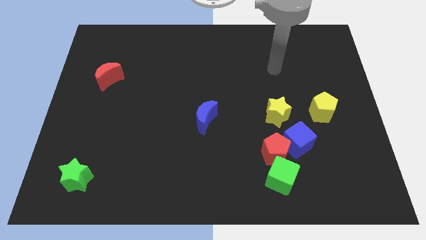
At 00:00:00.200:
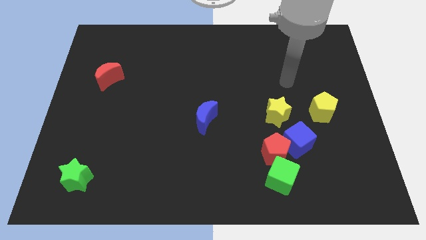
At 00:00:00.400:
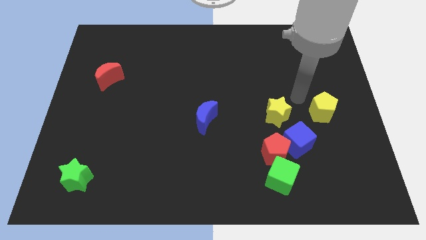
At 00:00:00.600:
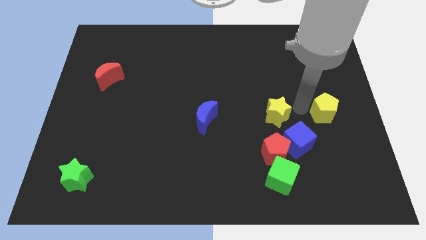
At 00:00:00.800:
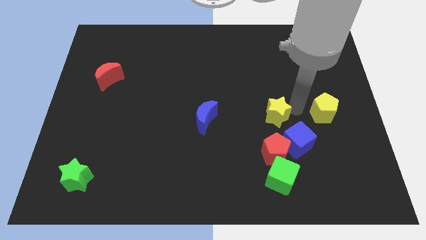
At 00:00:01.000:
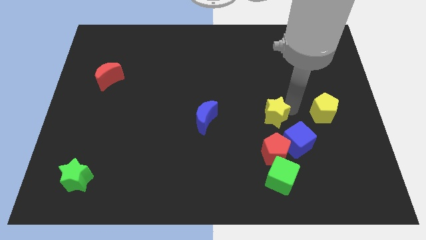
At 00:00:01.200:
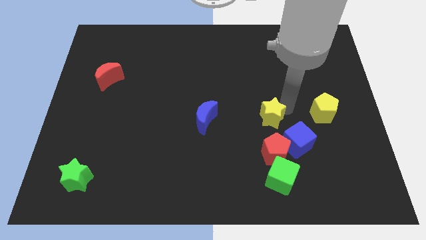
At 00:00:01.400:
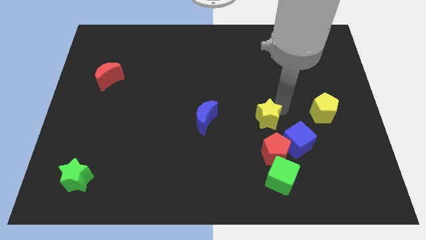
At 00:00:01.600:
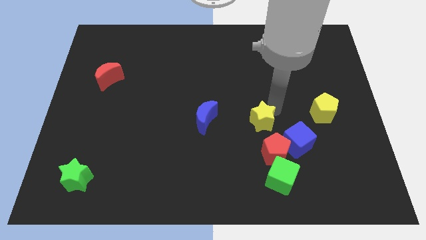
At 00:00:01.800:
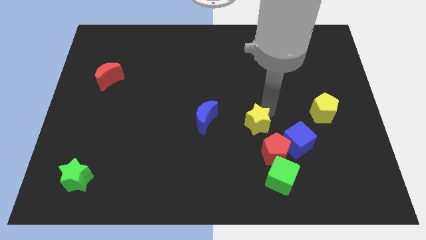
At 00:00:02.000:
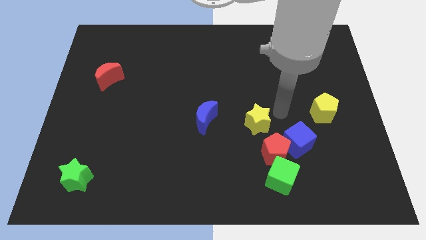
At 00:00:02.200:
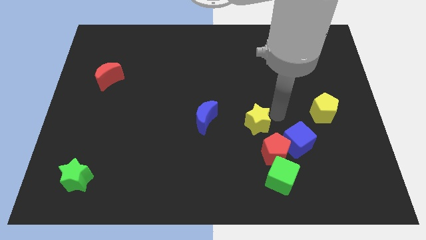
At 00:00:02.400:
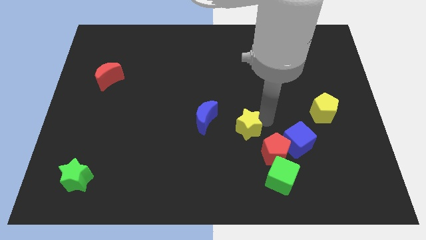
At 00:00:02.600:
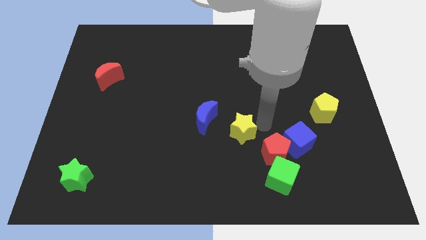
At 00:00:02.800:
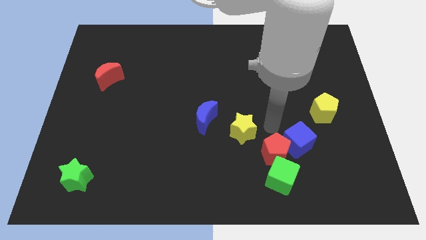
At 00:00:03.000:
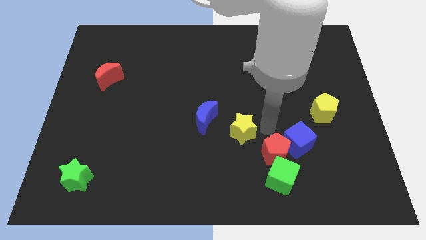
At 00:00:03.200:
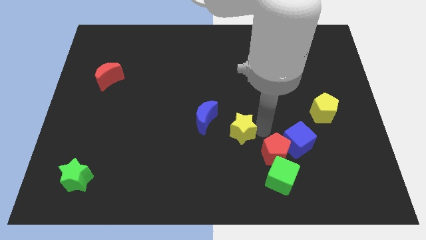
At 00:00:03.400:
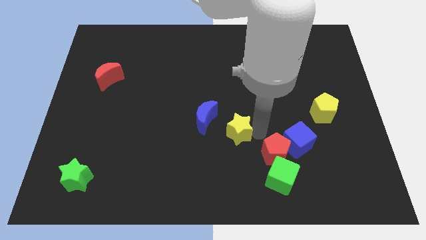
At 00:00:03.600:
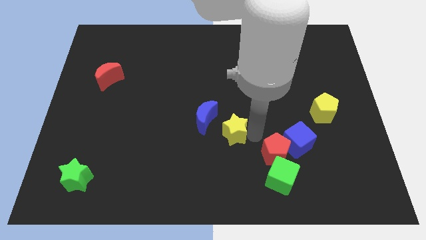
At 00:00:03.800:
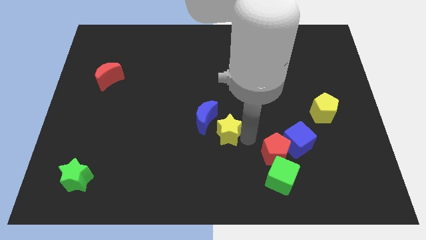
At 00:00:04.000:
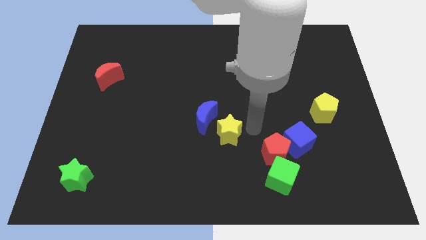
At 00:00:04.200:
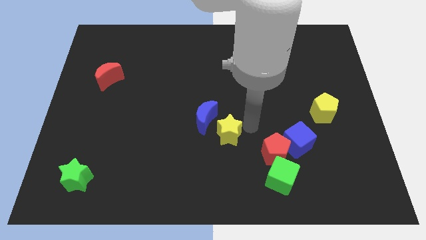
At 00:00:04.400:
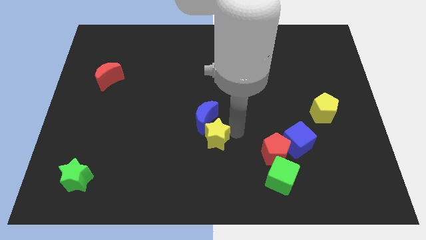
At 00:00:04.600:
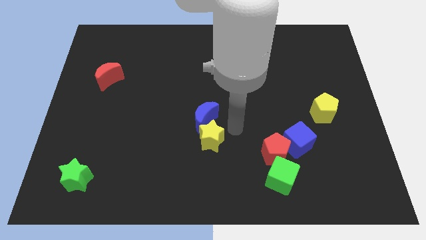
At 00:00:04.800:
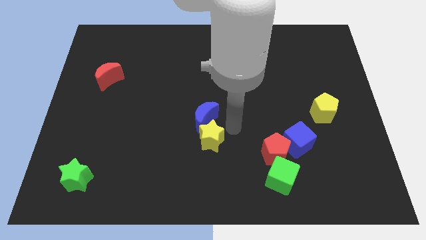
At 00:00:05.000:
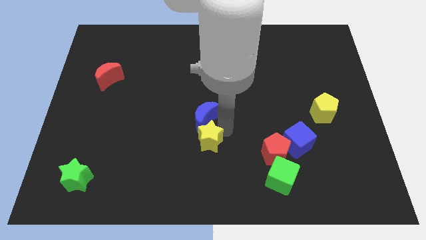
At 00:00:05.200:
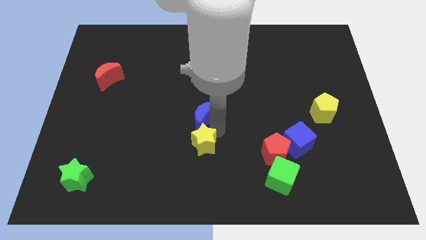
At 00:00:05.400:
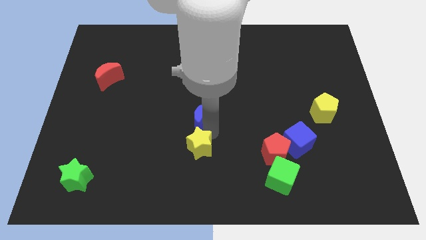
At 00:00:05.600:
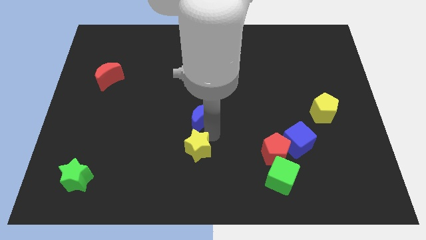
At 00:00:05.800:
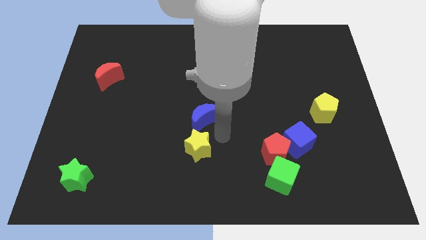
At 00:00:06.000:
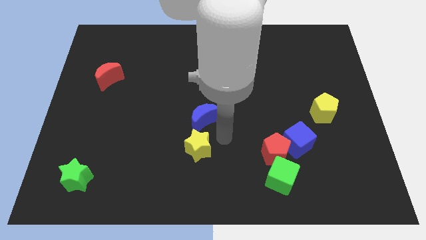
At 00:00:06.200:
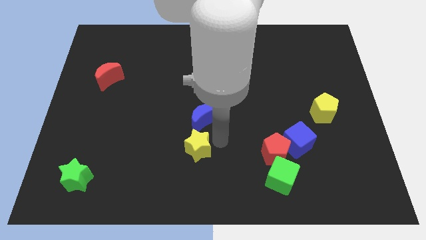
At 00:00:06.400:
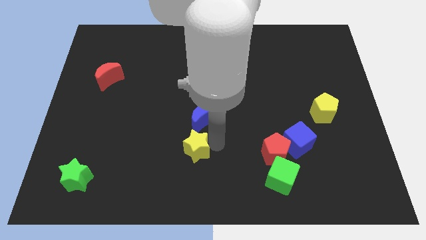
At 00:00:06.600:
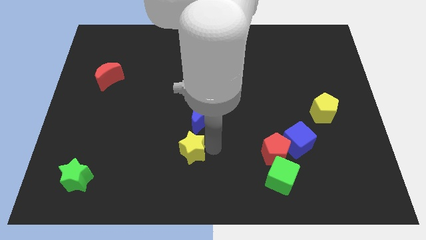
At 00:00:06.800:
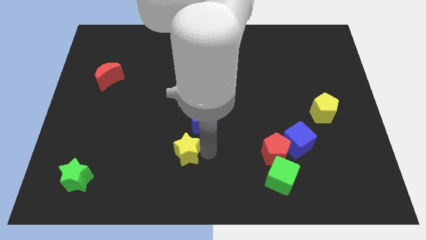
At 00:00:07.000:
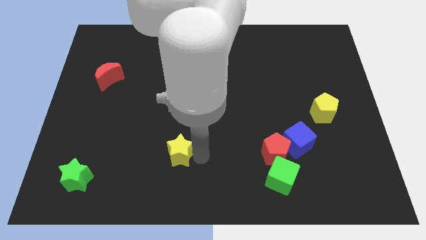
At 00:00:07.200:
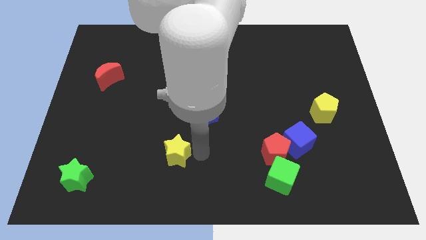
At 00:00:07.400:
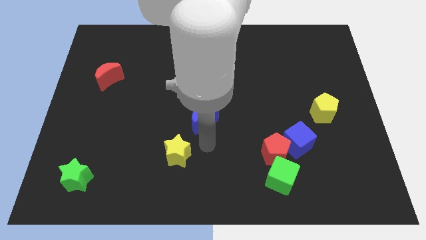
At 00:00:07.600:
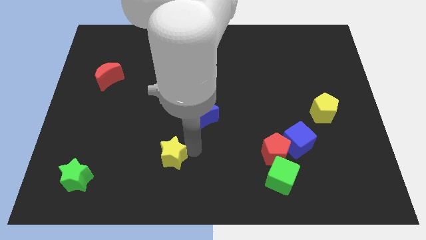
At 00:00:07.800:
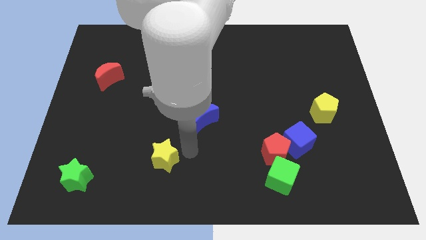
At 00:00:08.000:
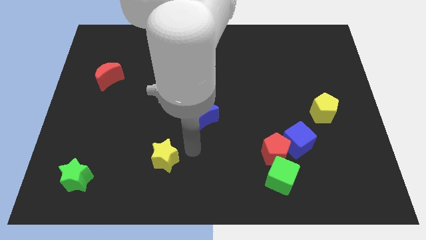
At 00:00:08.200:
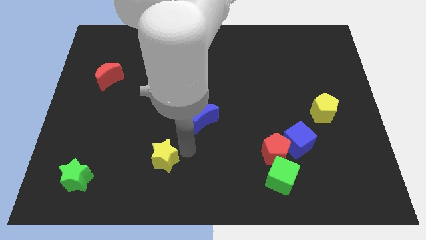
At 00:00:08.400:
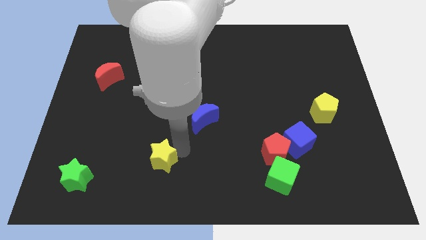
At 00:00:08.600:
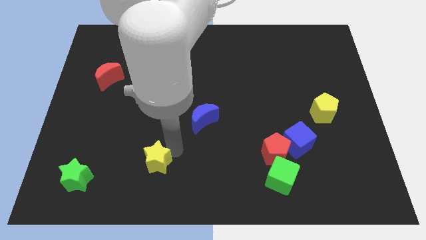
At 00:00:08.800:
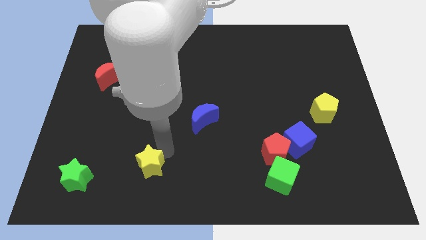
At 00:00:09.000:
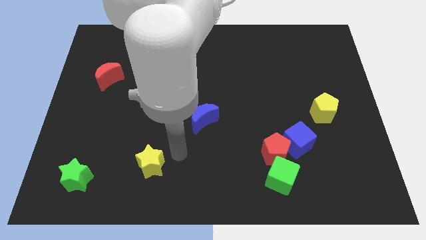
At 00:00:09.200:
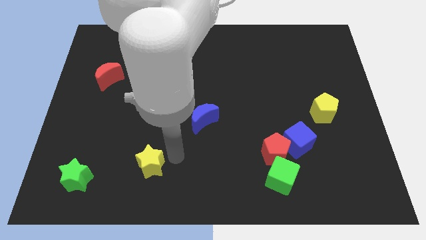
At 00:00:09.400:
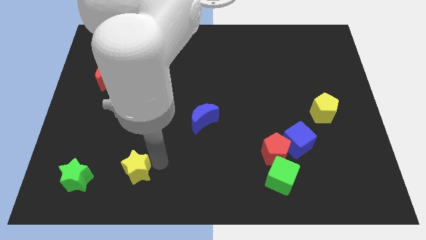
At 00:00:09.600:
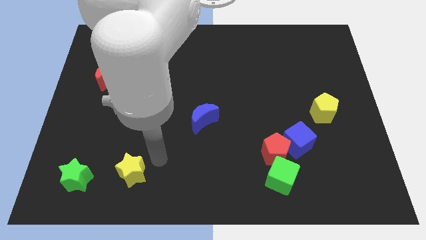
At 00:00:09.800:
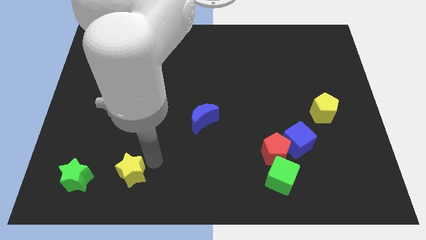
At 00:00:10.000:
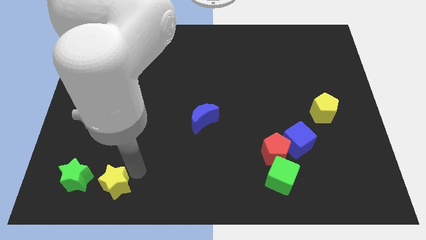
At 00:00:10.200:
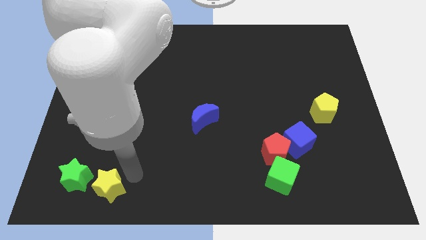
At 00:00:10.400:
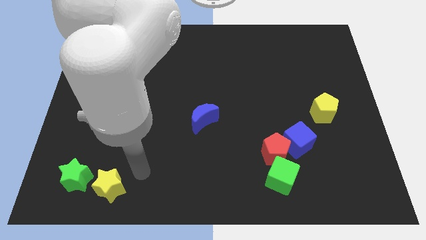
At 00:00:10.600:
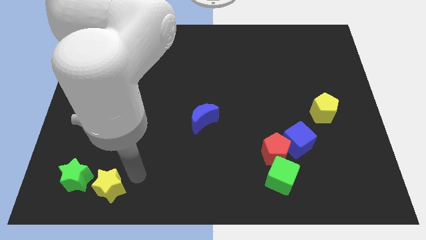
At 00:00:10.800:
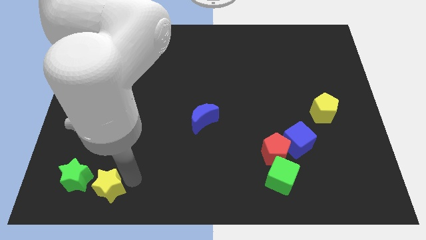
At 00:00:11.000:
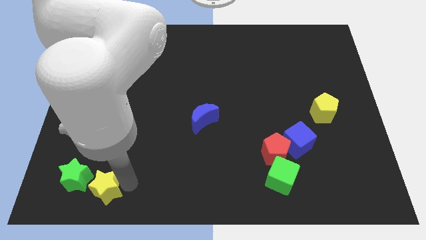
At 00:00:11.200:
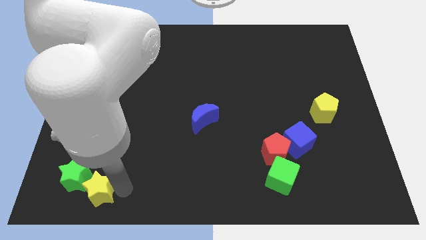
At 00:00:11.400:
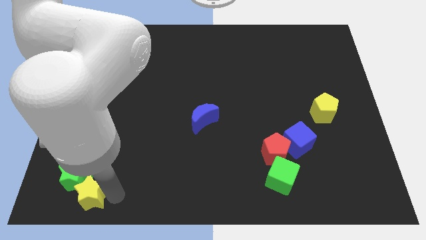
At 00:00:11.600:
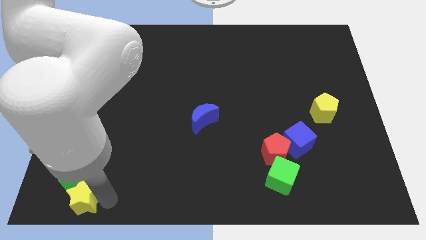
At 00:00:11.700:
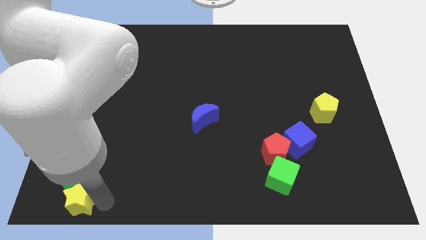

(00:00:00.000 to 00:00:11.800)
move the yellow star to the bottom left corner

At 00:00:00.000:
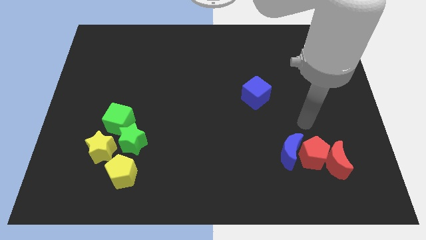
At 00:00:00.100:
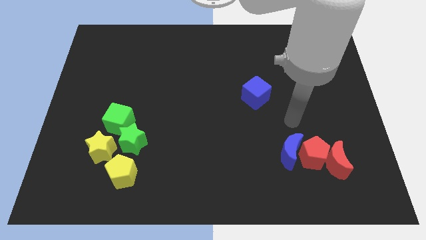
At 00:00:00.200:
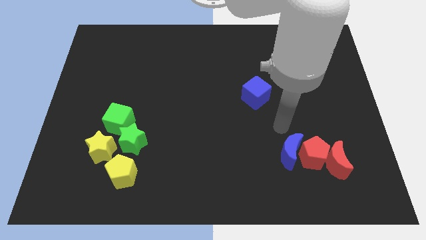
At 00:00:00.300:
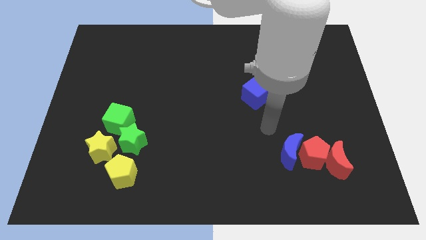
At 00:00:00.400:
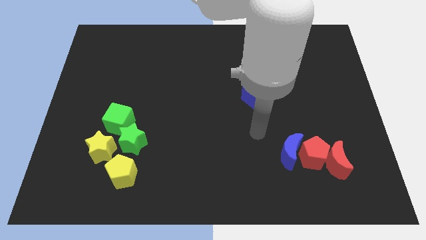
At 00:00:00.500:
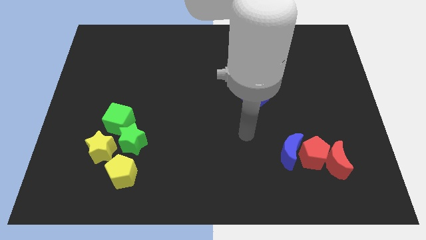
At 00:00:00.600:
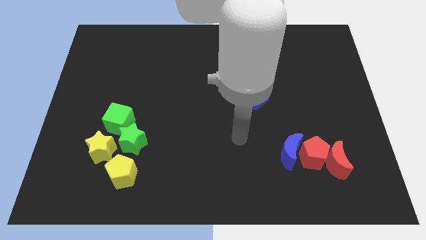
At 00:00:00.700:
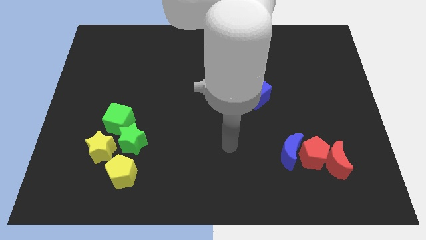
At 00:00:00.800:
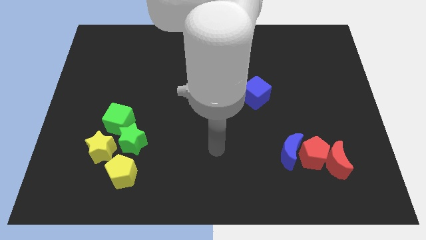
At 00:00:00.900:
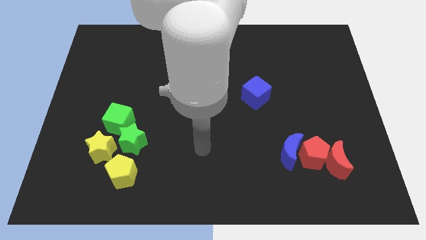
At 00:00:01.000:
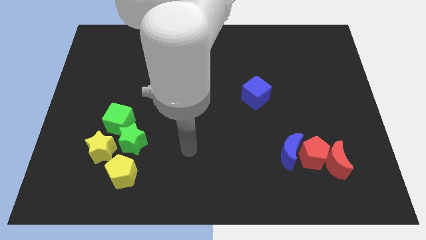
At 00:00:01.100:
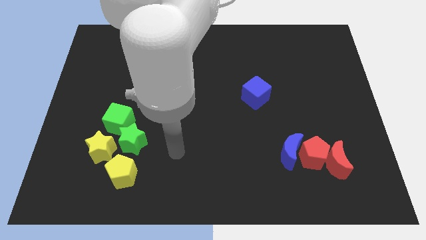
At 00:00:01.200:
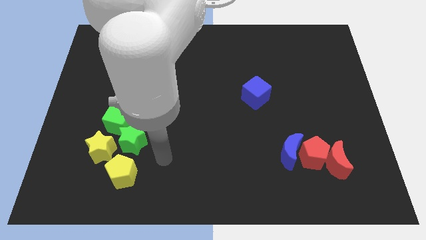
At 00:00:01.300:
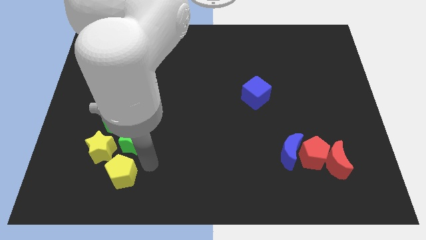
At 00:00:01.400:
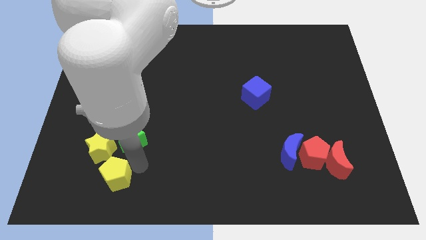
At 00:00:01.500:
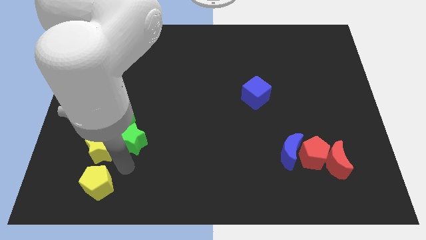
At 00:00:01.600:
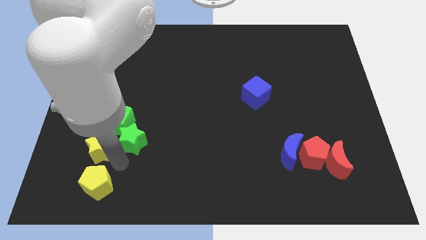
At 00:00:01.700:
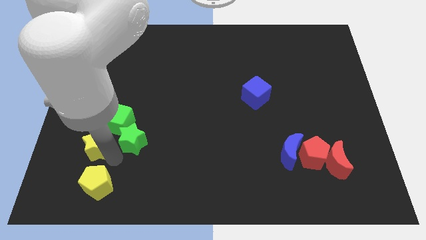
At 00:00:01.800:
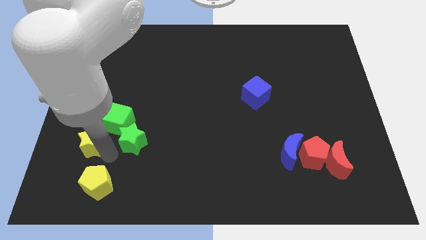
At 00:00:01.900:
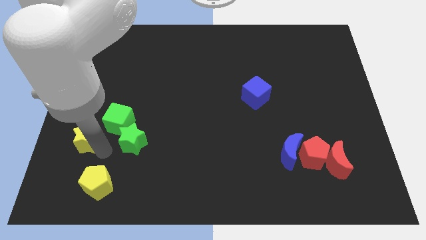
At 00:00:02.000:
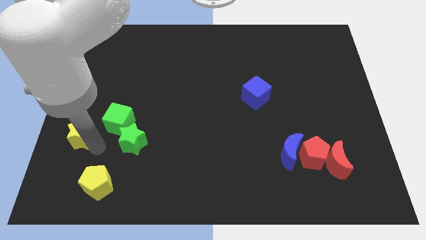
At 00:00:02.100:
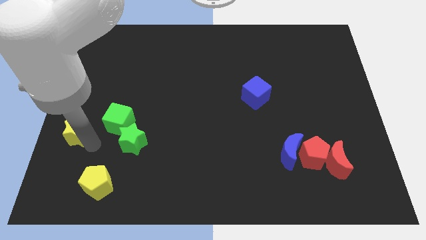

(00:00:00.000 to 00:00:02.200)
push the yellow star to the center left
